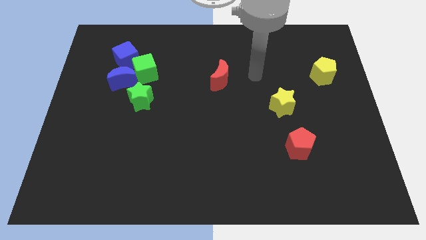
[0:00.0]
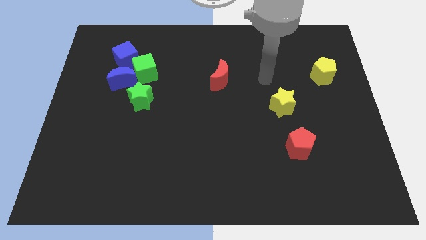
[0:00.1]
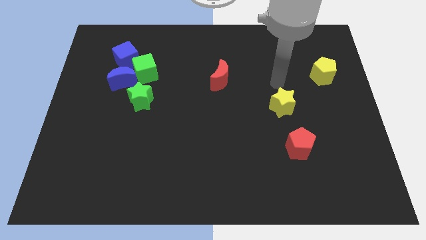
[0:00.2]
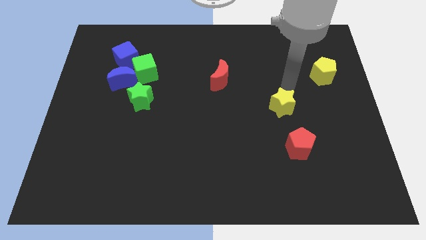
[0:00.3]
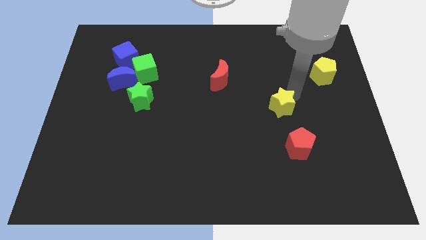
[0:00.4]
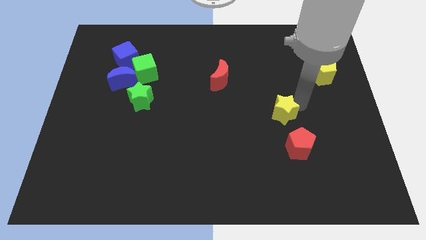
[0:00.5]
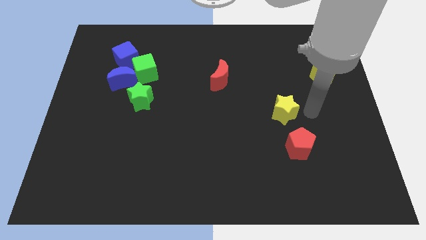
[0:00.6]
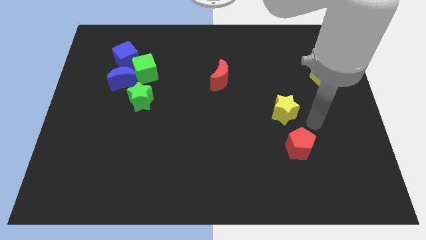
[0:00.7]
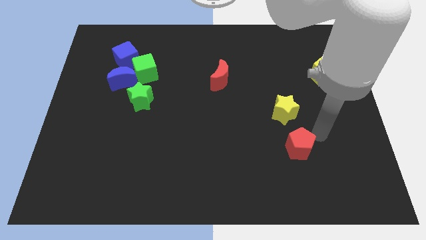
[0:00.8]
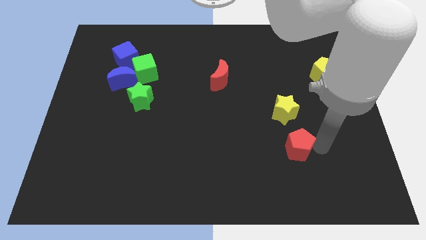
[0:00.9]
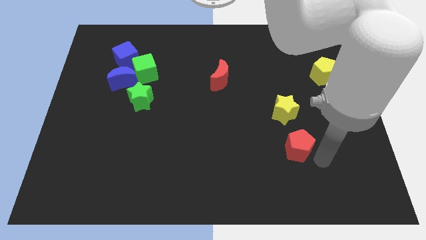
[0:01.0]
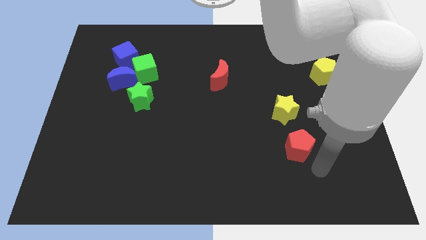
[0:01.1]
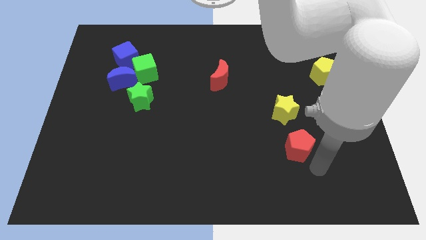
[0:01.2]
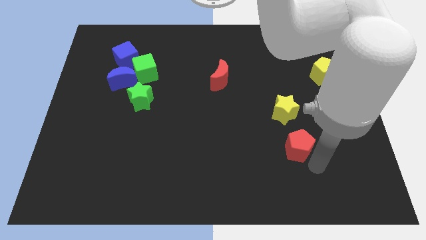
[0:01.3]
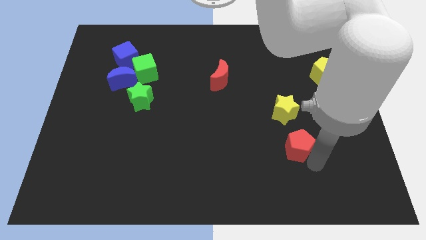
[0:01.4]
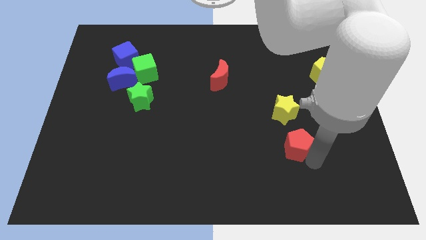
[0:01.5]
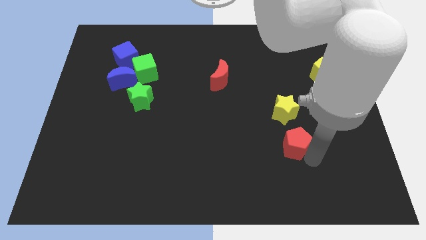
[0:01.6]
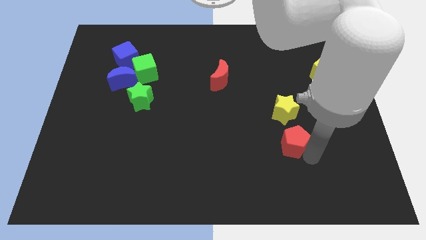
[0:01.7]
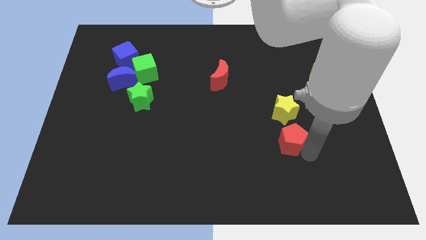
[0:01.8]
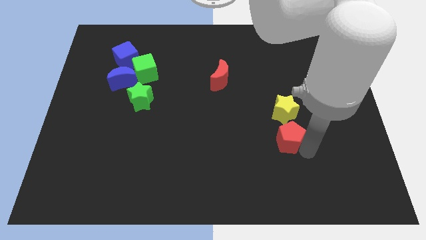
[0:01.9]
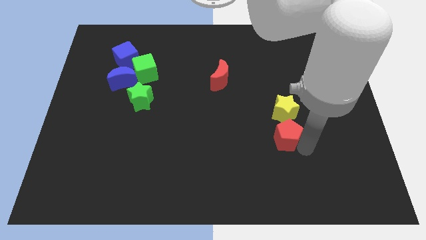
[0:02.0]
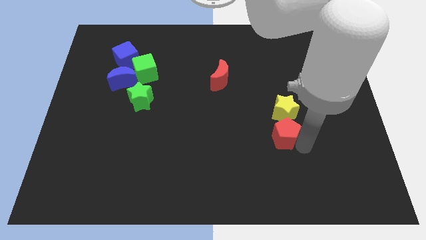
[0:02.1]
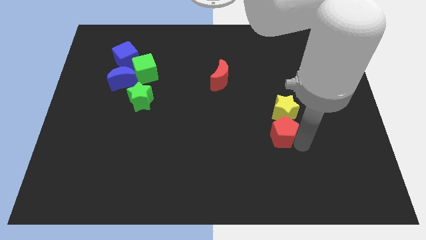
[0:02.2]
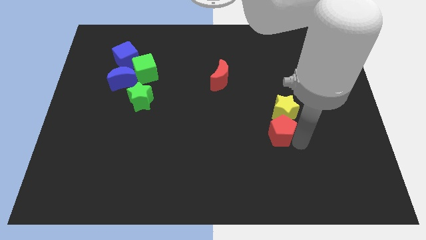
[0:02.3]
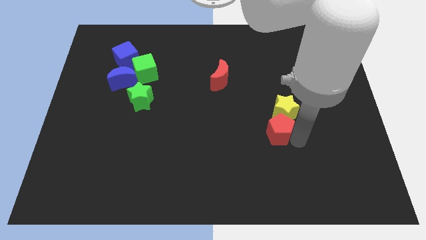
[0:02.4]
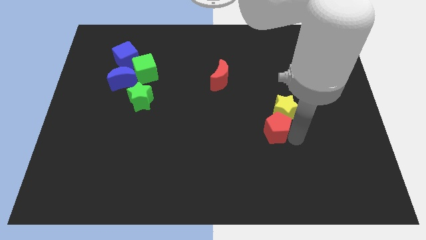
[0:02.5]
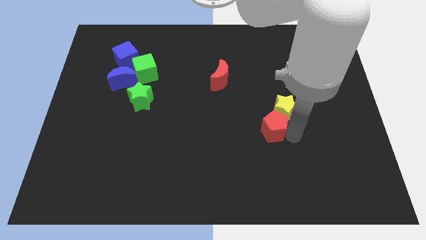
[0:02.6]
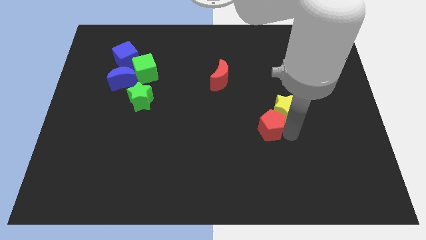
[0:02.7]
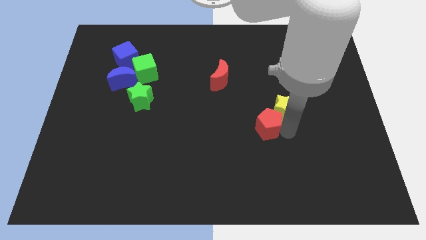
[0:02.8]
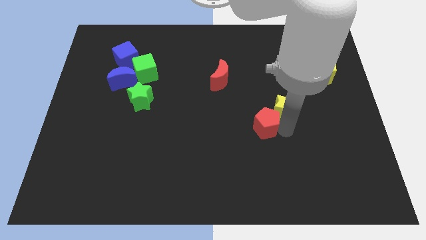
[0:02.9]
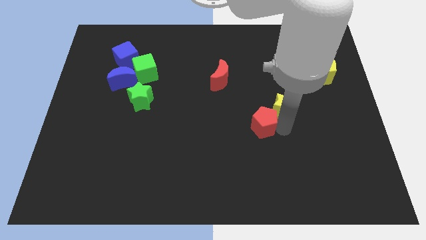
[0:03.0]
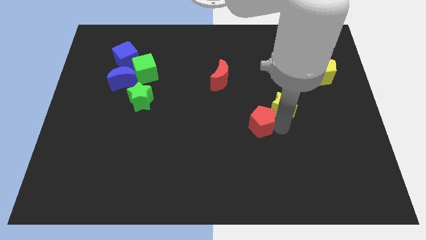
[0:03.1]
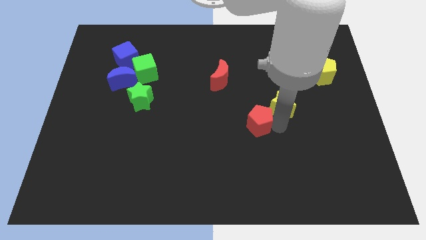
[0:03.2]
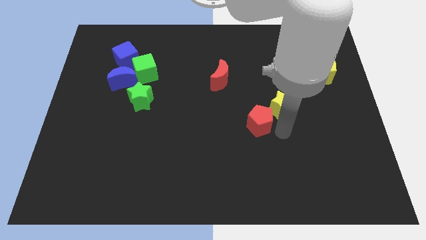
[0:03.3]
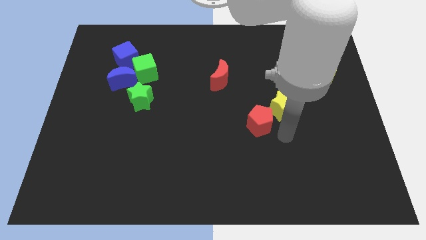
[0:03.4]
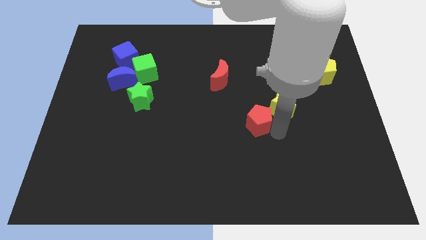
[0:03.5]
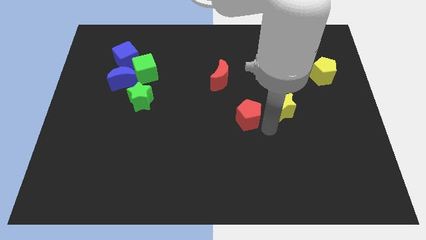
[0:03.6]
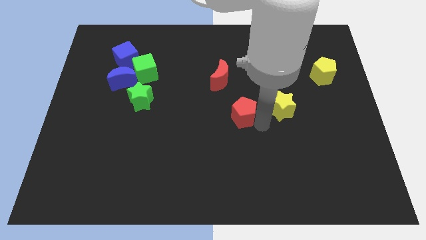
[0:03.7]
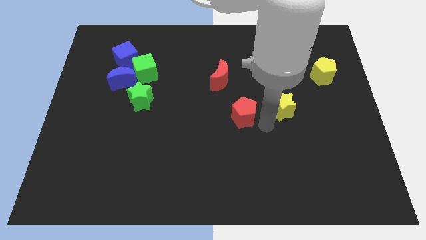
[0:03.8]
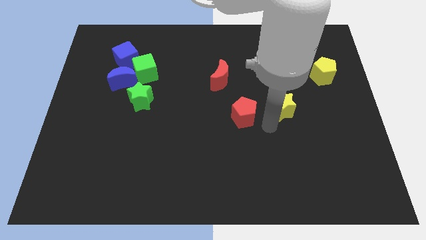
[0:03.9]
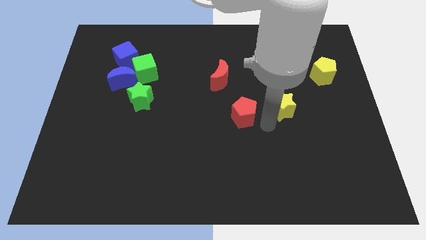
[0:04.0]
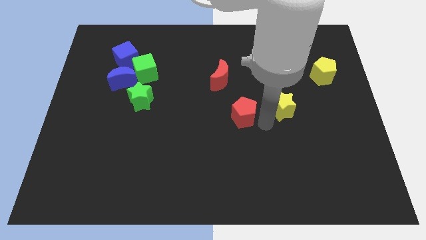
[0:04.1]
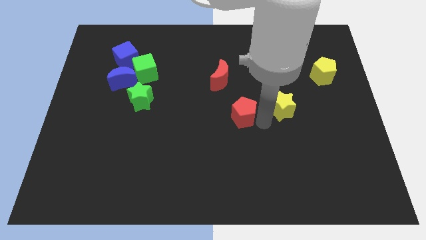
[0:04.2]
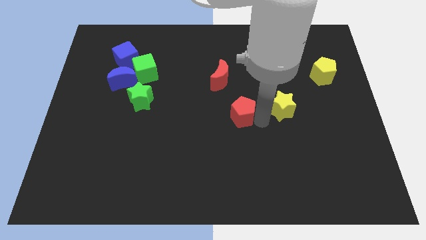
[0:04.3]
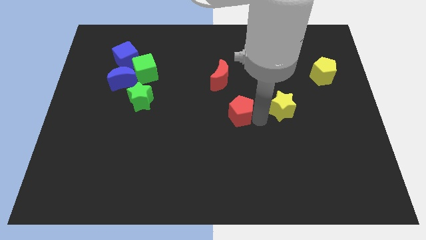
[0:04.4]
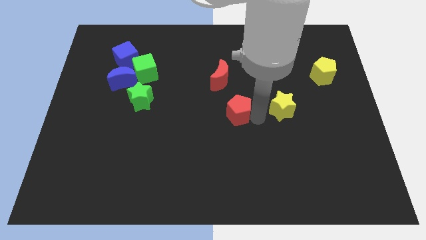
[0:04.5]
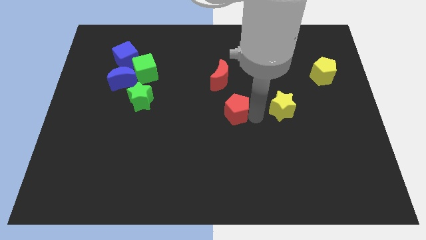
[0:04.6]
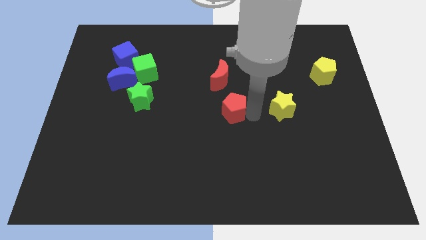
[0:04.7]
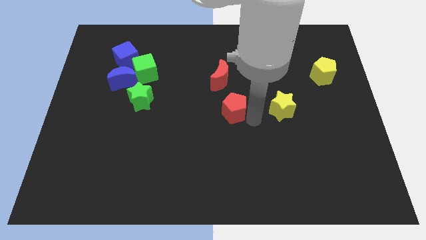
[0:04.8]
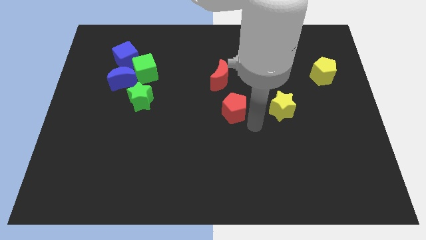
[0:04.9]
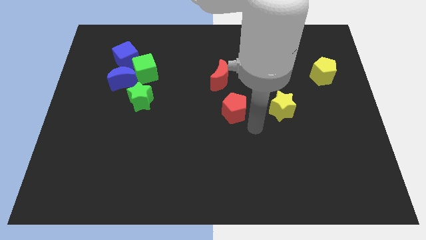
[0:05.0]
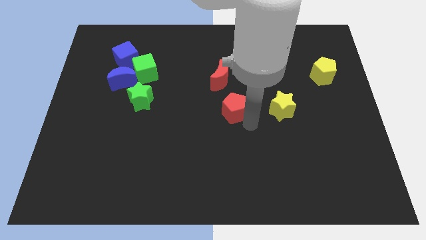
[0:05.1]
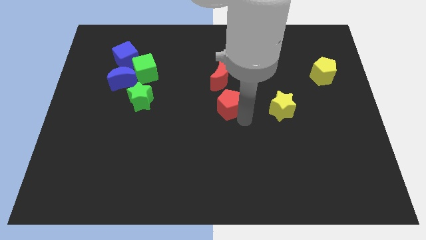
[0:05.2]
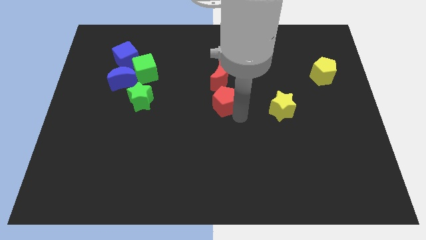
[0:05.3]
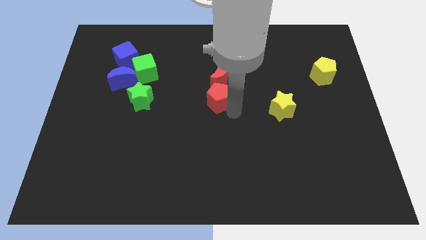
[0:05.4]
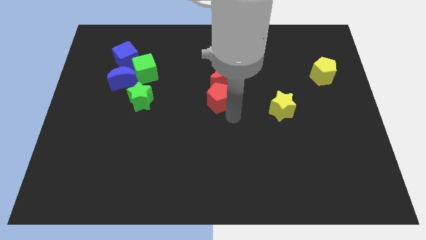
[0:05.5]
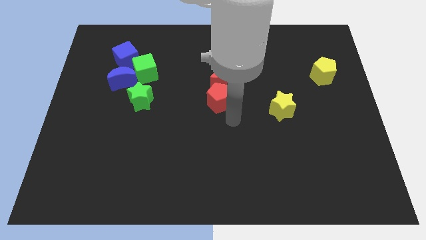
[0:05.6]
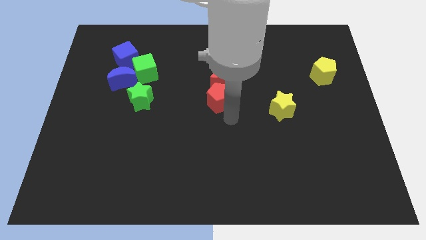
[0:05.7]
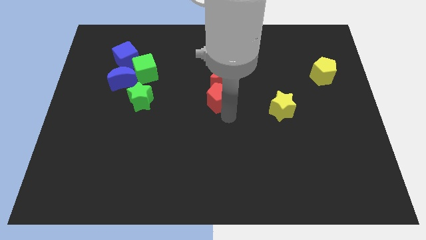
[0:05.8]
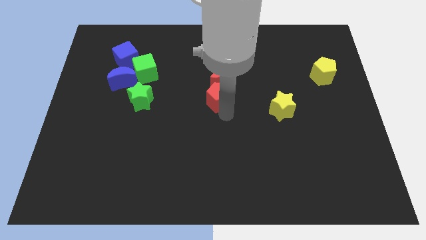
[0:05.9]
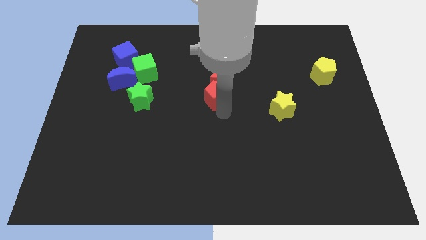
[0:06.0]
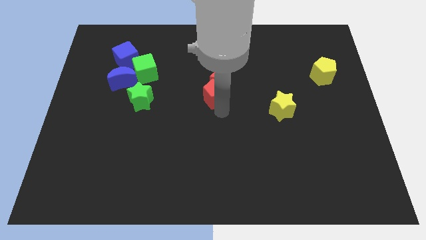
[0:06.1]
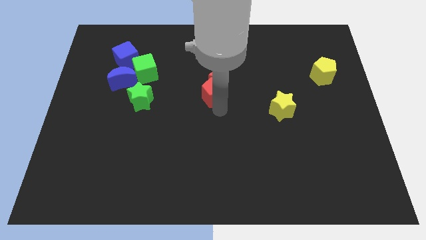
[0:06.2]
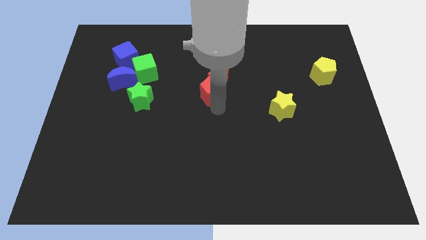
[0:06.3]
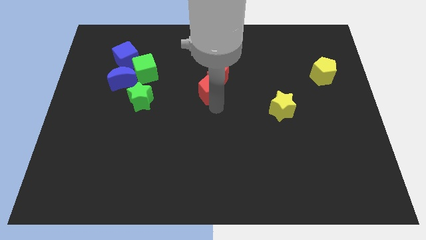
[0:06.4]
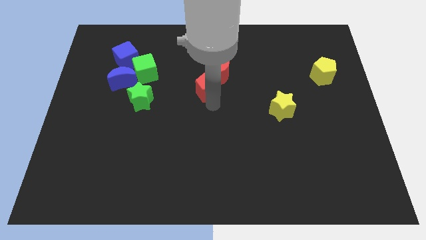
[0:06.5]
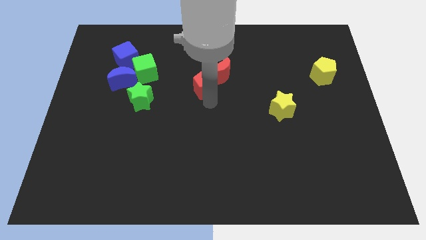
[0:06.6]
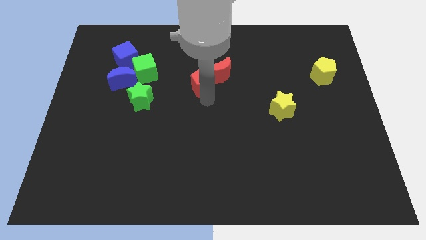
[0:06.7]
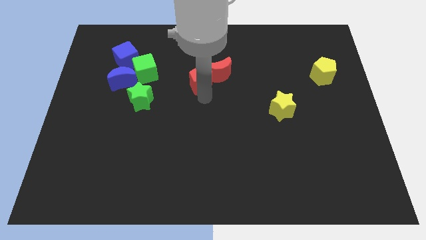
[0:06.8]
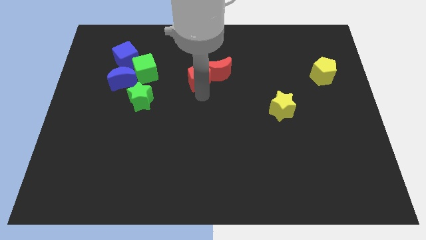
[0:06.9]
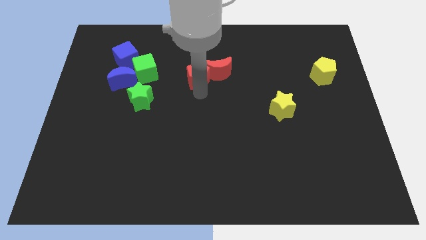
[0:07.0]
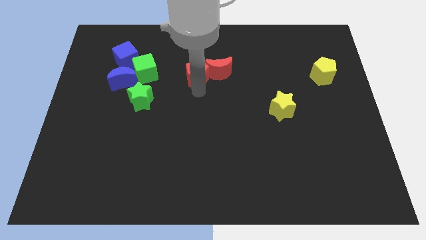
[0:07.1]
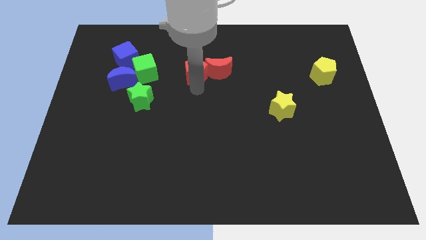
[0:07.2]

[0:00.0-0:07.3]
slide the red pentagon diagonally up and to the left of the red moon

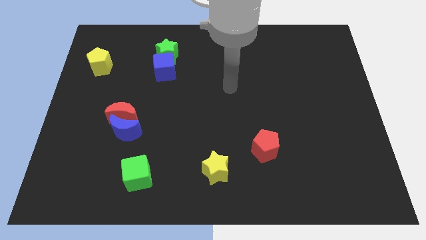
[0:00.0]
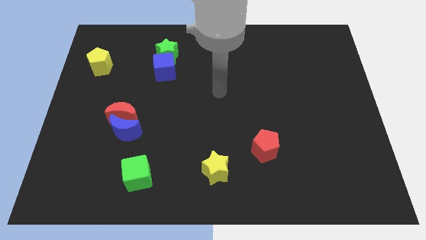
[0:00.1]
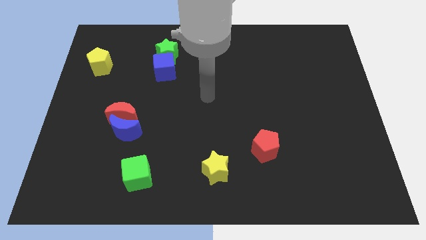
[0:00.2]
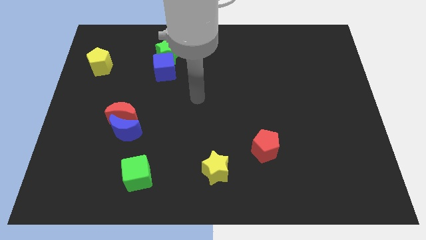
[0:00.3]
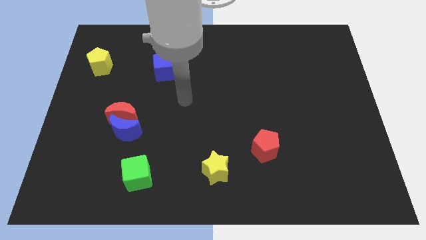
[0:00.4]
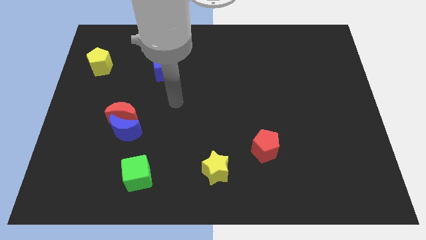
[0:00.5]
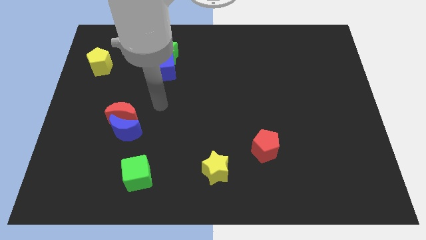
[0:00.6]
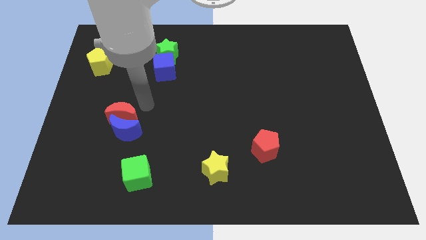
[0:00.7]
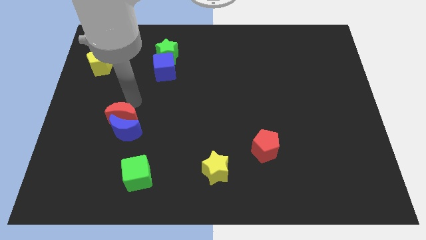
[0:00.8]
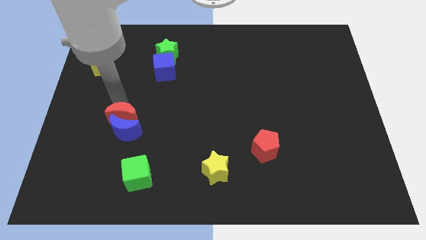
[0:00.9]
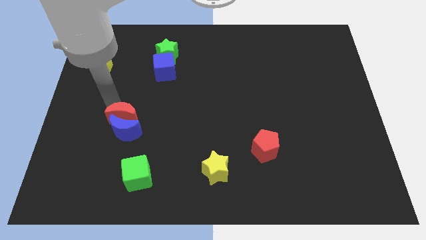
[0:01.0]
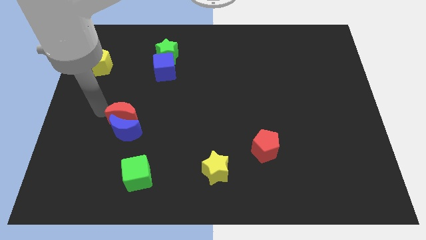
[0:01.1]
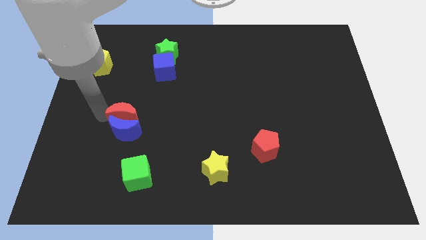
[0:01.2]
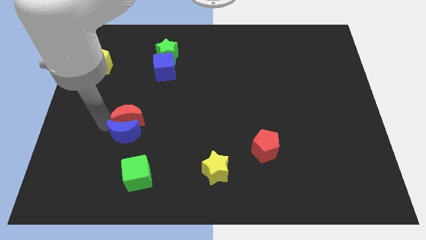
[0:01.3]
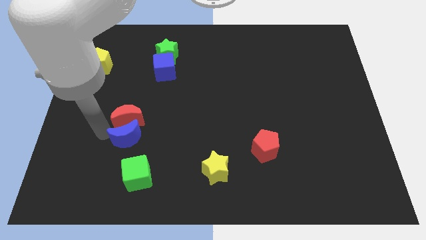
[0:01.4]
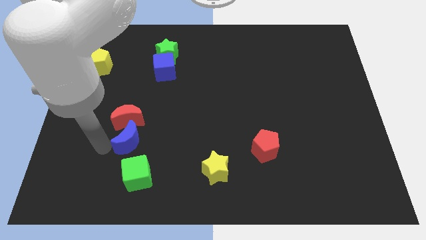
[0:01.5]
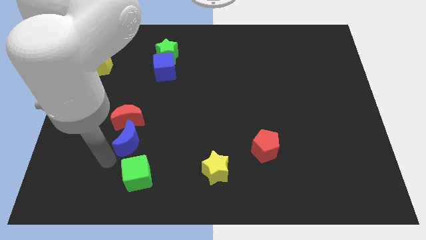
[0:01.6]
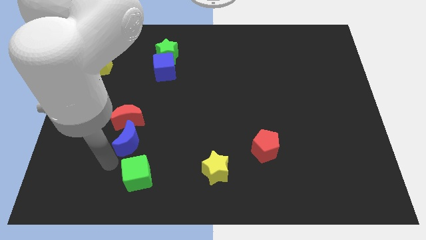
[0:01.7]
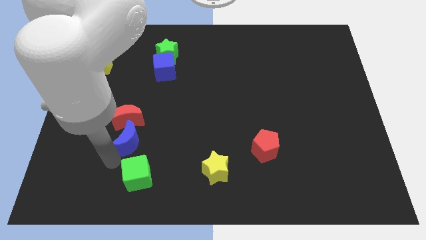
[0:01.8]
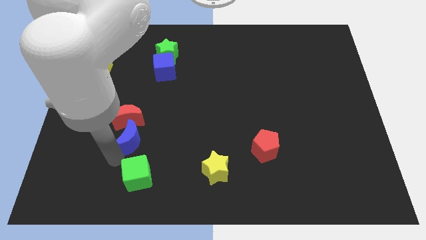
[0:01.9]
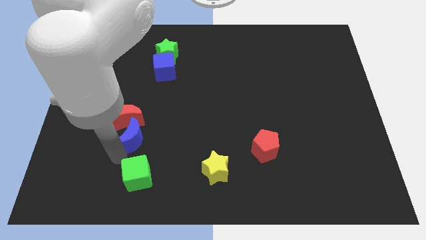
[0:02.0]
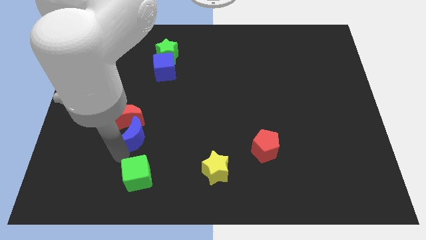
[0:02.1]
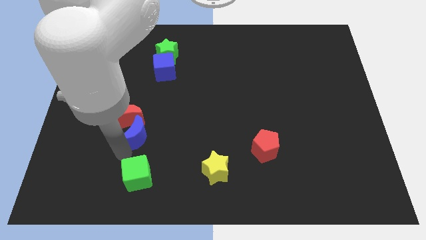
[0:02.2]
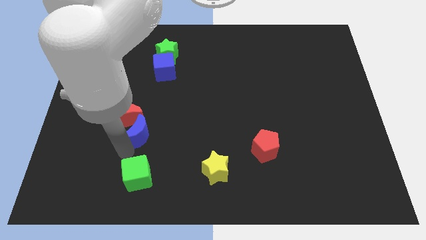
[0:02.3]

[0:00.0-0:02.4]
put the blue moon just right of the red moon
